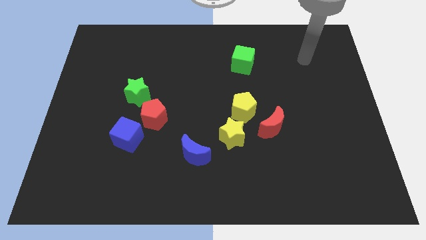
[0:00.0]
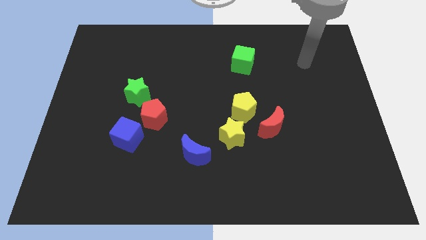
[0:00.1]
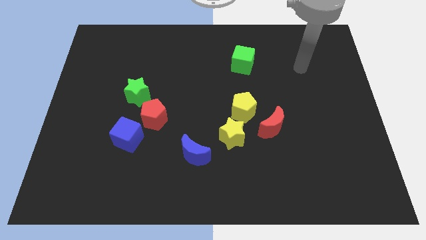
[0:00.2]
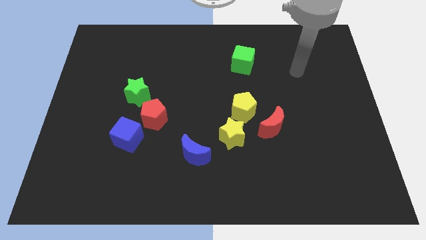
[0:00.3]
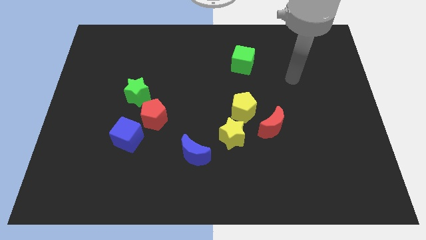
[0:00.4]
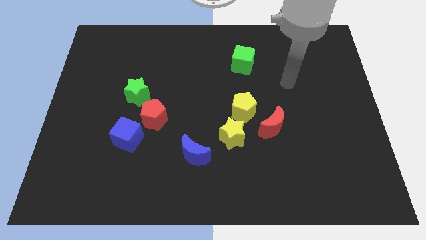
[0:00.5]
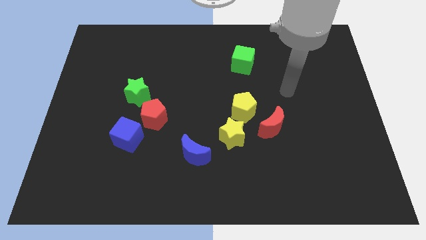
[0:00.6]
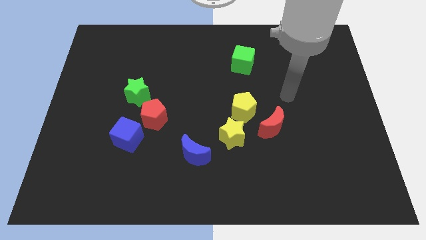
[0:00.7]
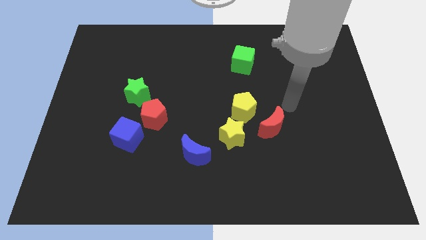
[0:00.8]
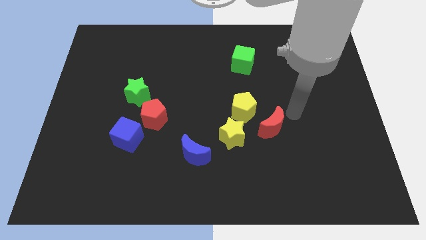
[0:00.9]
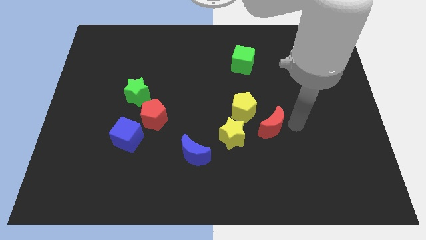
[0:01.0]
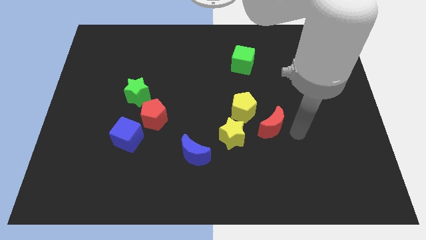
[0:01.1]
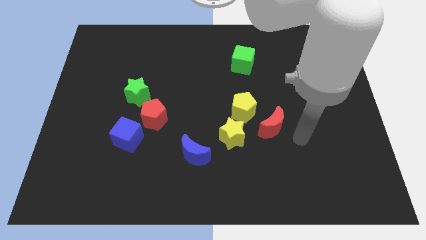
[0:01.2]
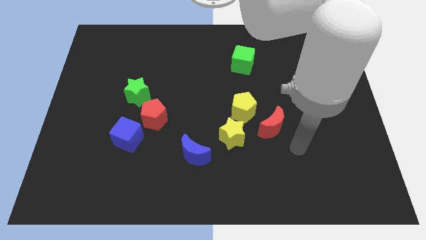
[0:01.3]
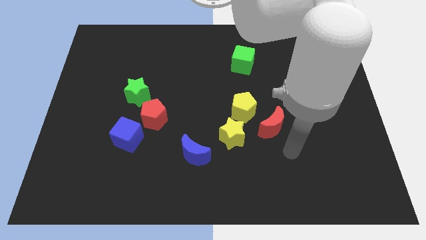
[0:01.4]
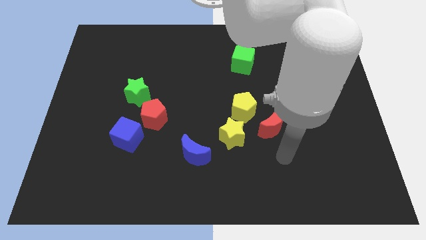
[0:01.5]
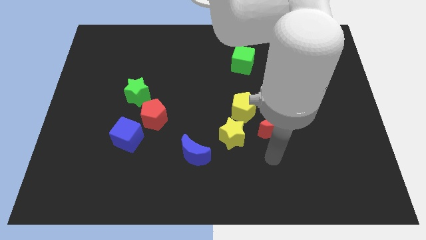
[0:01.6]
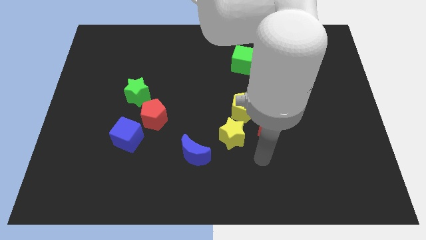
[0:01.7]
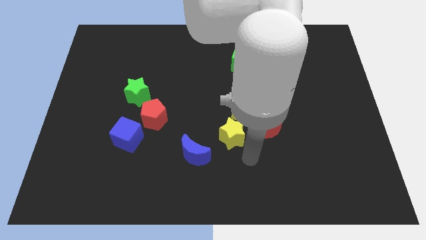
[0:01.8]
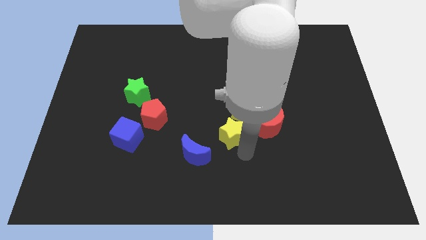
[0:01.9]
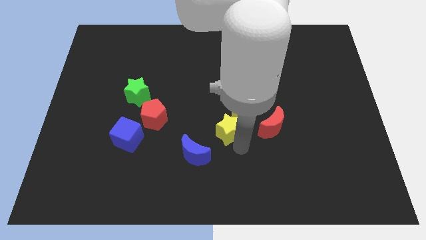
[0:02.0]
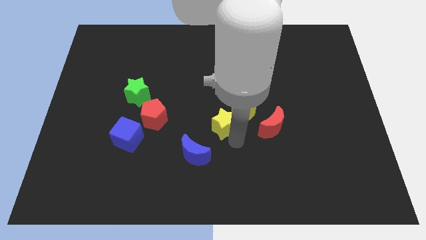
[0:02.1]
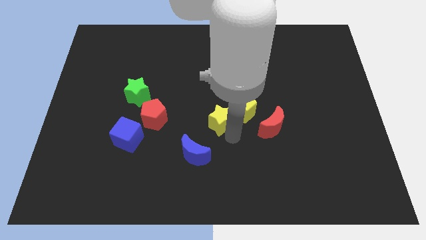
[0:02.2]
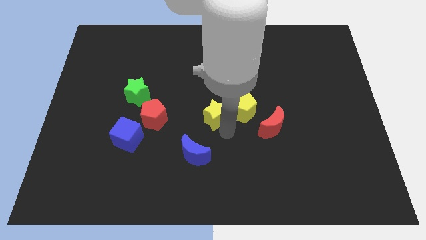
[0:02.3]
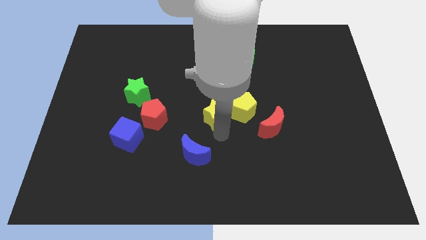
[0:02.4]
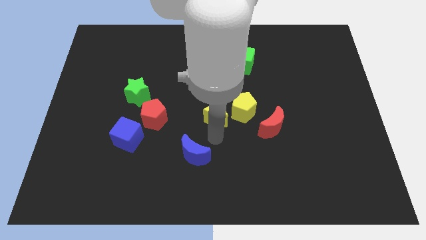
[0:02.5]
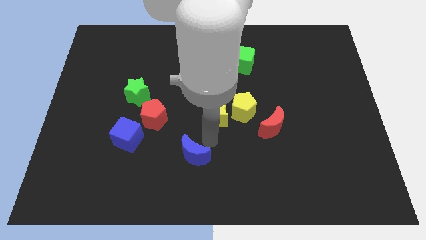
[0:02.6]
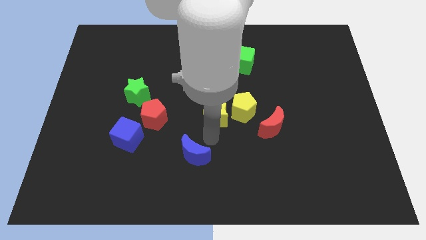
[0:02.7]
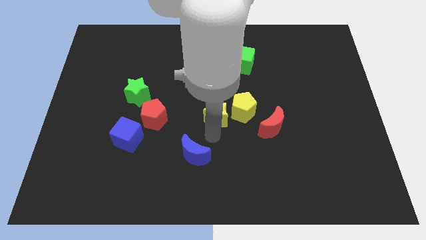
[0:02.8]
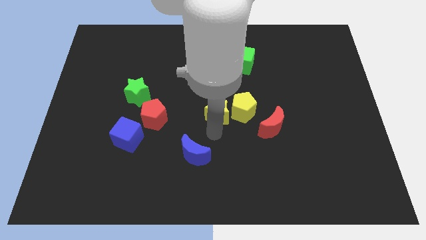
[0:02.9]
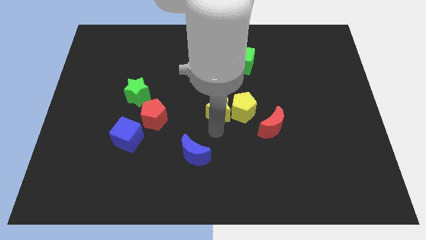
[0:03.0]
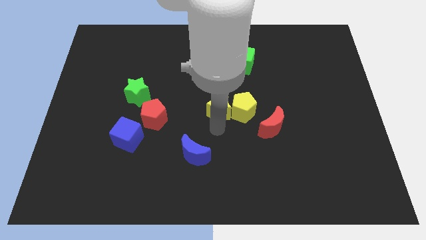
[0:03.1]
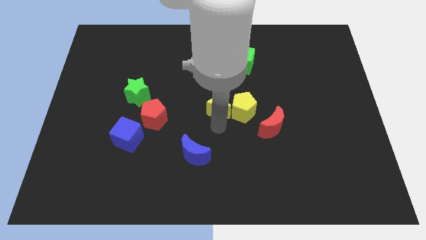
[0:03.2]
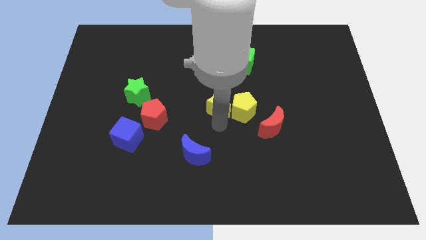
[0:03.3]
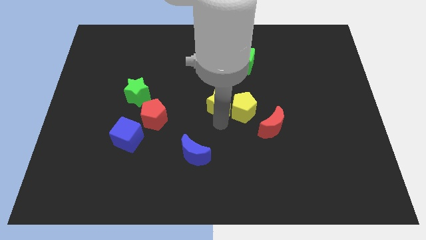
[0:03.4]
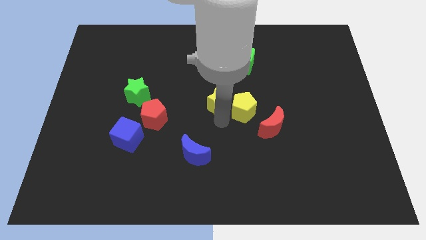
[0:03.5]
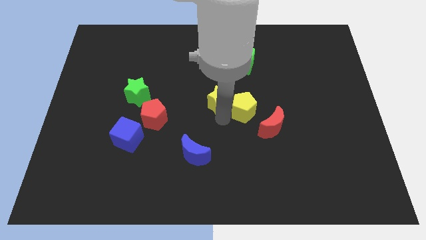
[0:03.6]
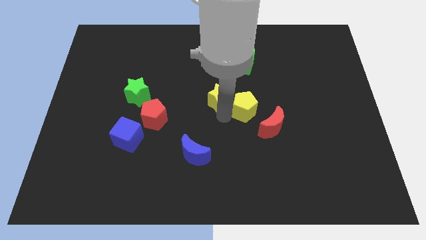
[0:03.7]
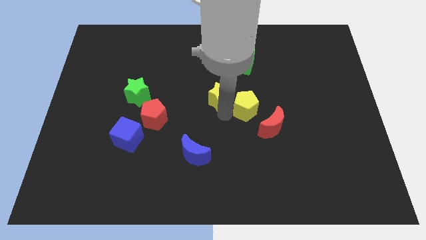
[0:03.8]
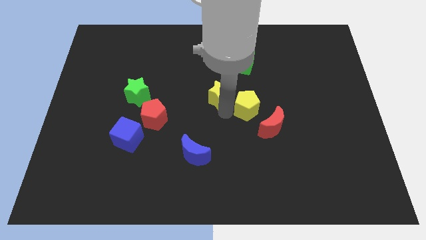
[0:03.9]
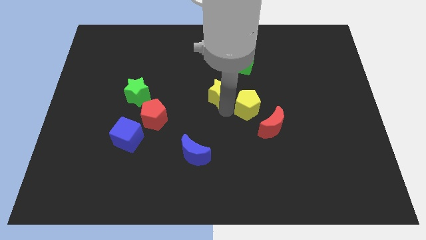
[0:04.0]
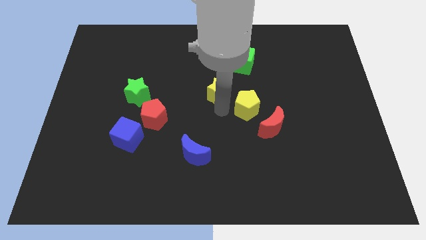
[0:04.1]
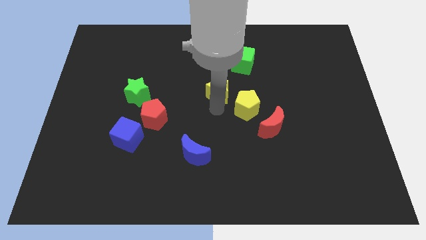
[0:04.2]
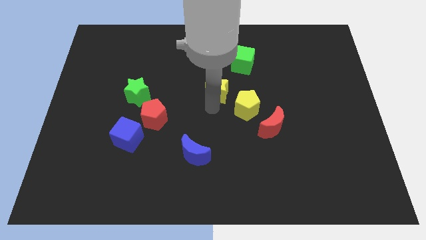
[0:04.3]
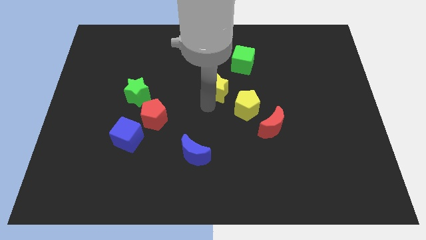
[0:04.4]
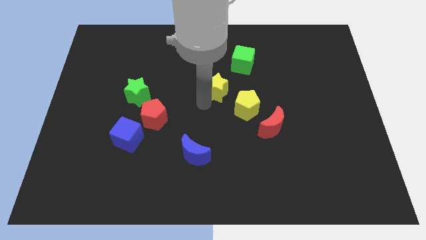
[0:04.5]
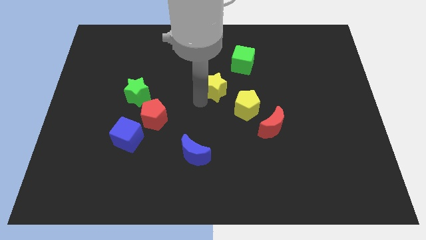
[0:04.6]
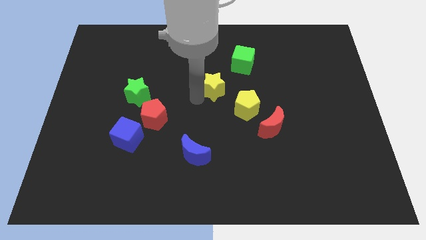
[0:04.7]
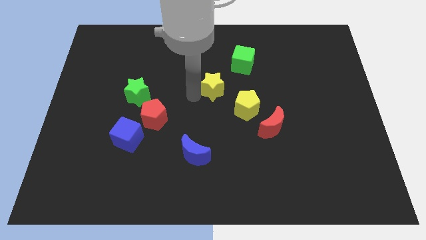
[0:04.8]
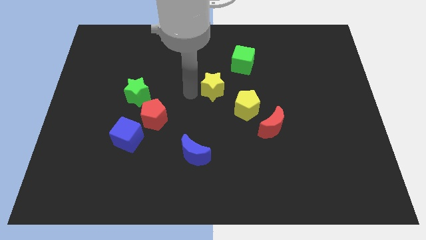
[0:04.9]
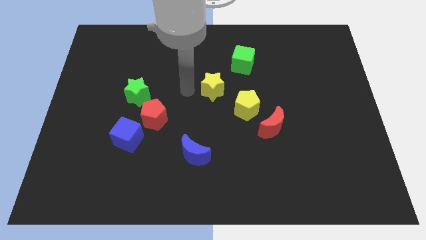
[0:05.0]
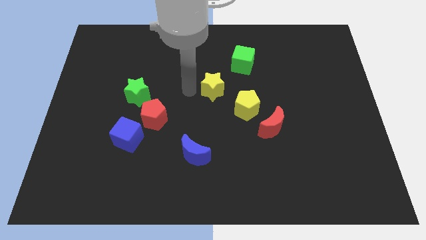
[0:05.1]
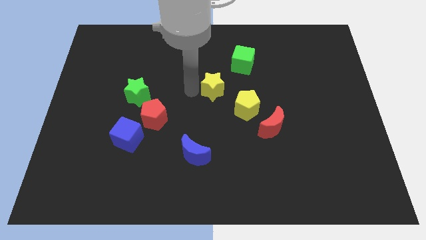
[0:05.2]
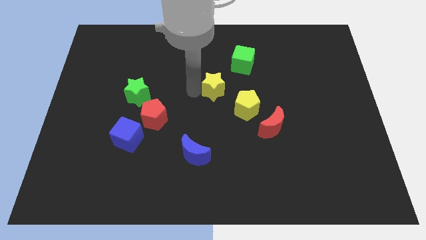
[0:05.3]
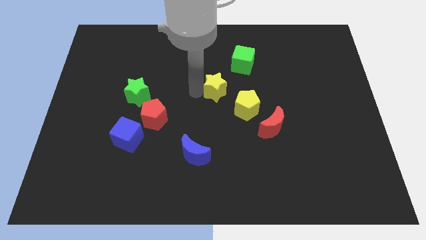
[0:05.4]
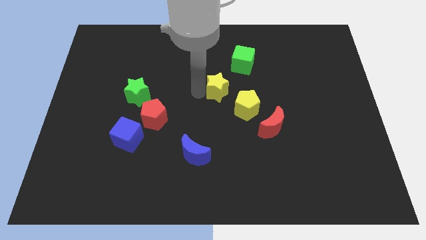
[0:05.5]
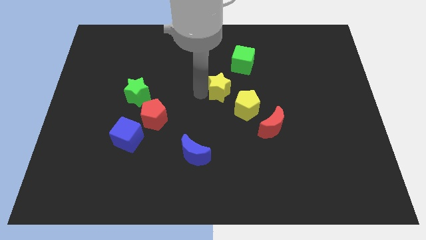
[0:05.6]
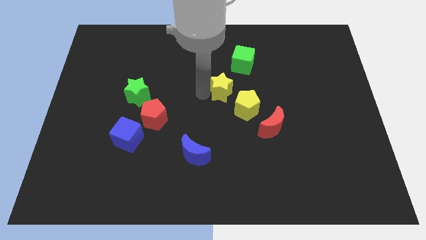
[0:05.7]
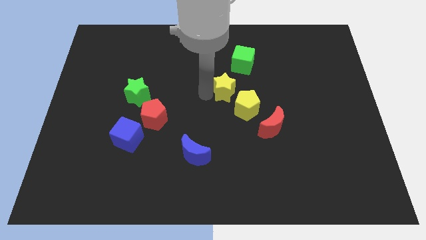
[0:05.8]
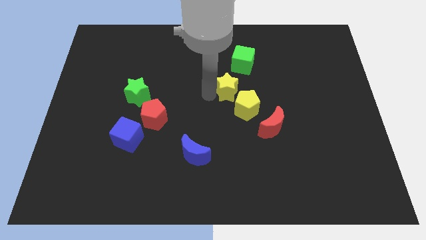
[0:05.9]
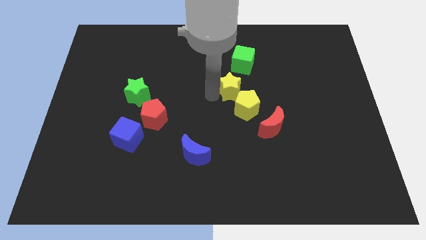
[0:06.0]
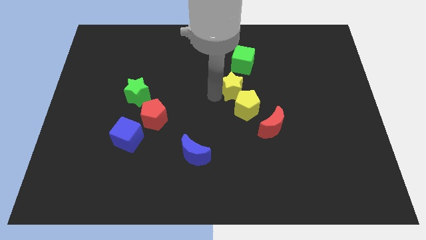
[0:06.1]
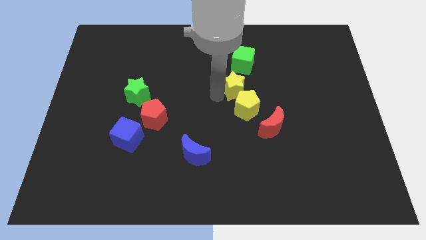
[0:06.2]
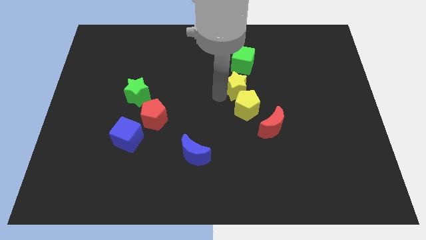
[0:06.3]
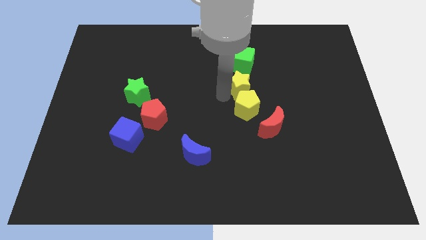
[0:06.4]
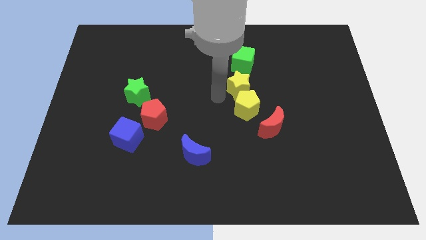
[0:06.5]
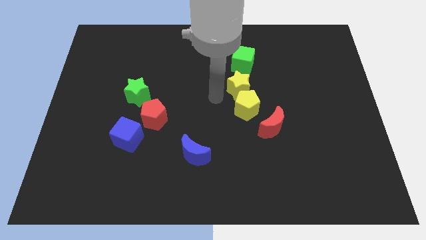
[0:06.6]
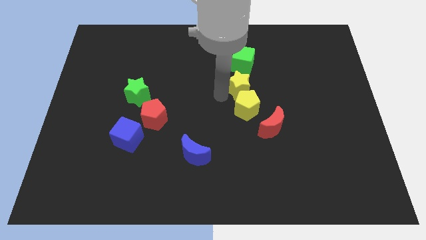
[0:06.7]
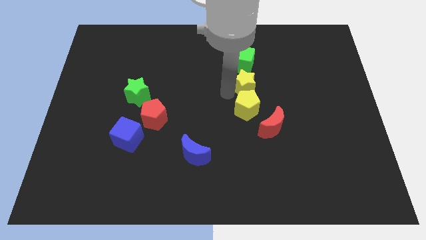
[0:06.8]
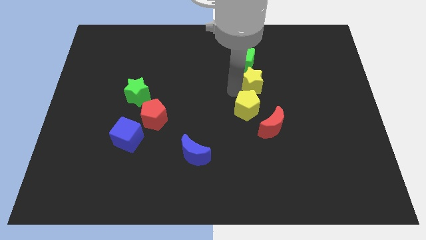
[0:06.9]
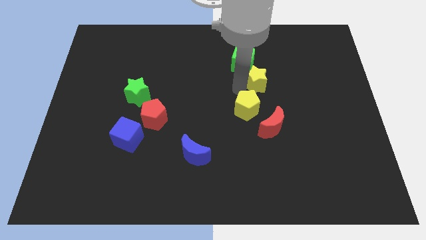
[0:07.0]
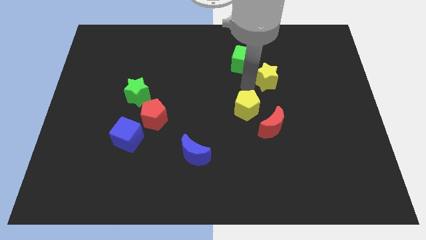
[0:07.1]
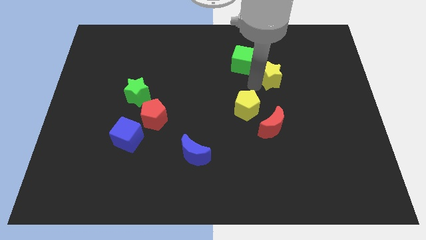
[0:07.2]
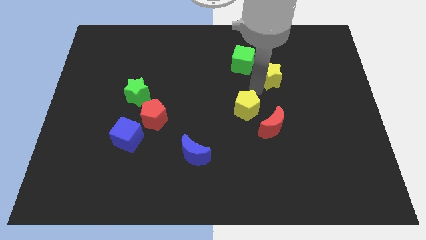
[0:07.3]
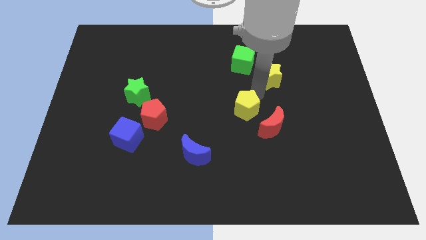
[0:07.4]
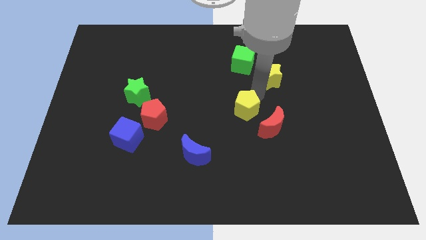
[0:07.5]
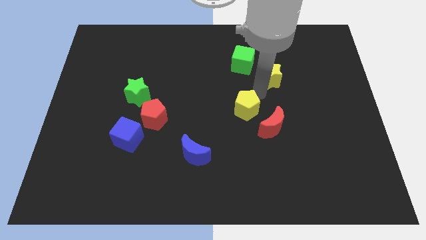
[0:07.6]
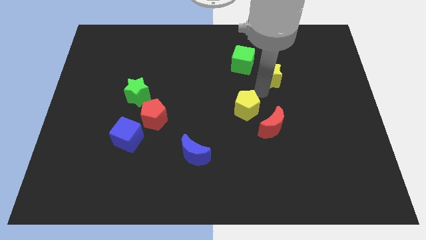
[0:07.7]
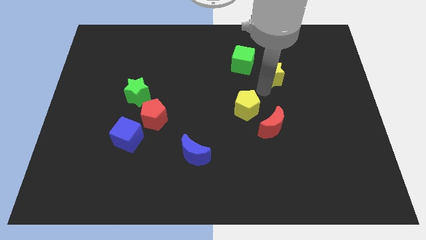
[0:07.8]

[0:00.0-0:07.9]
push the yellow star to the right of the green cube
